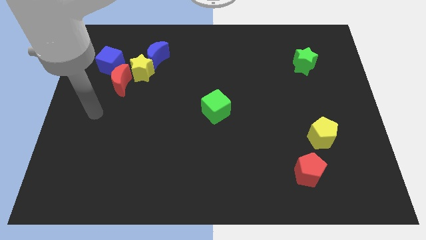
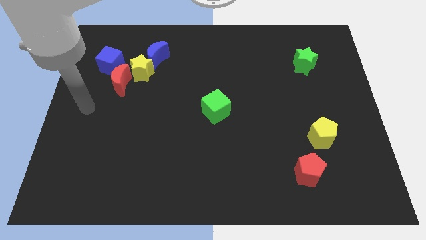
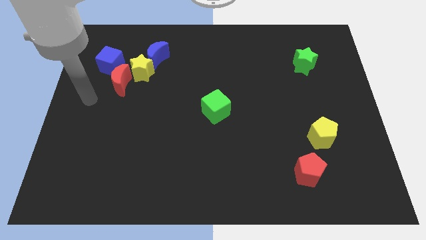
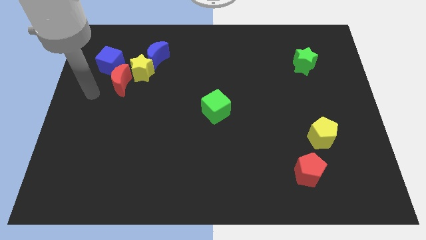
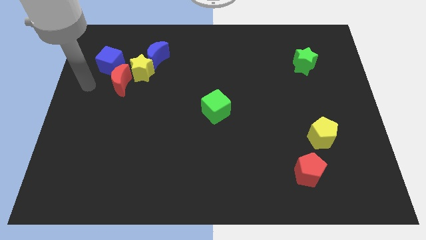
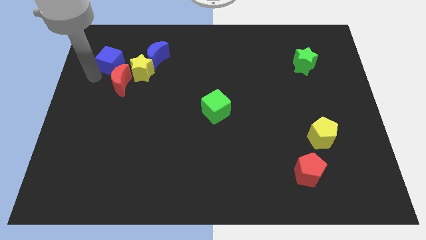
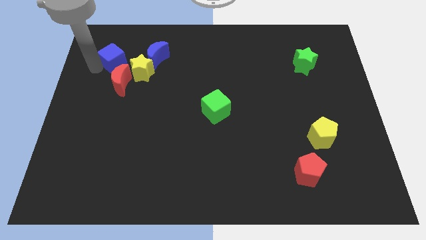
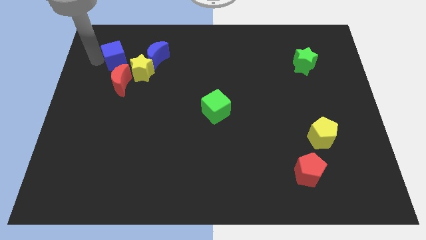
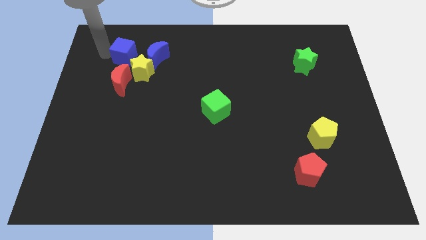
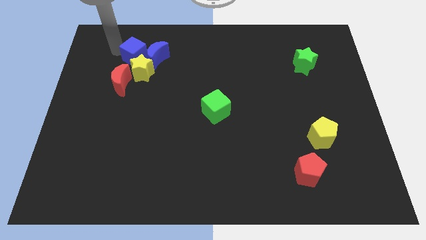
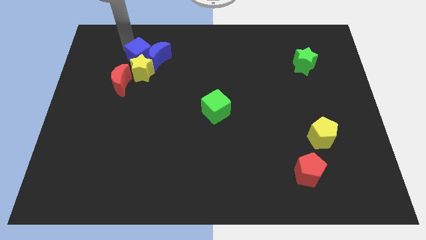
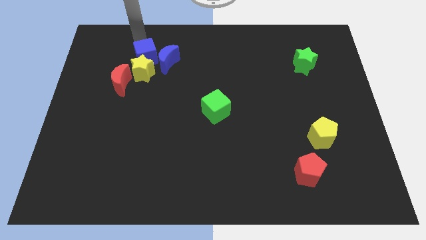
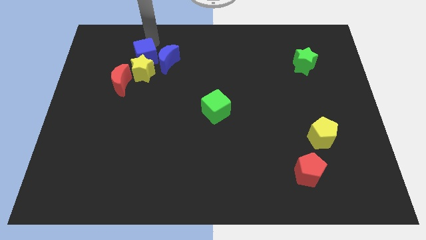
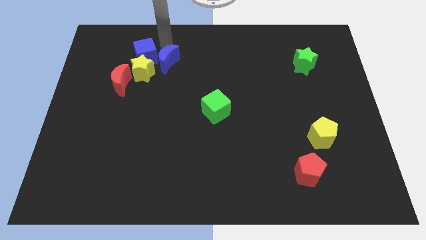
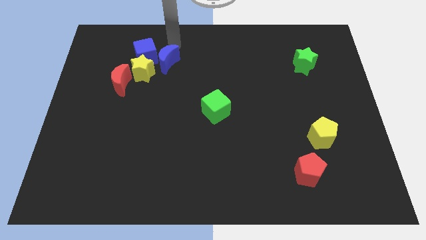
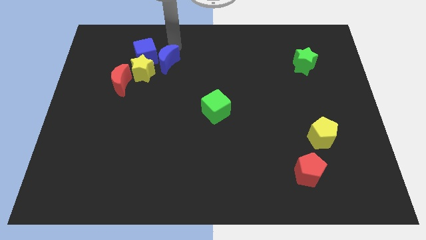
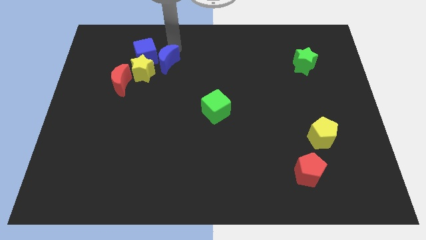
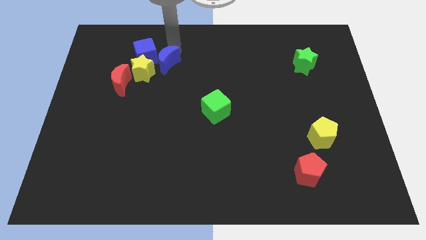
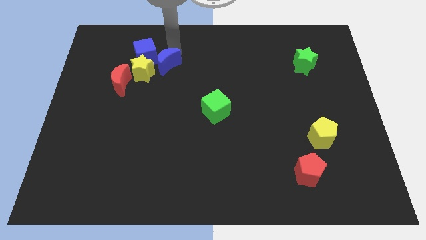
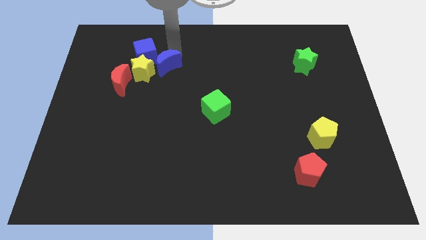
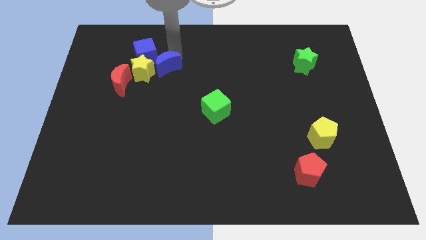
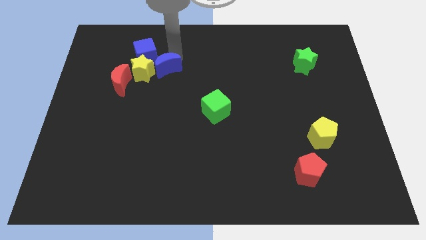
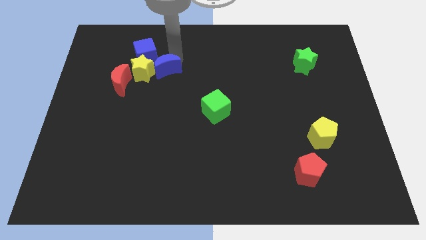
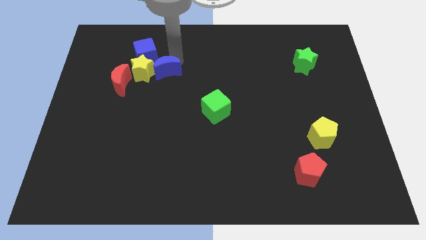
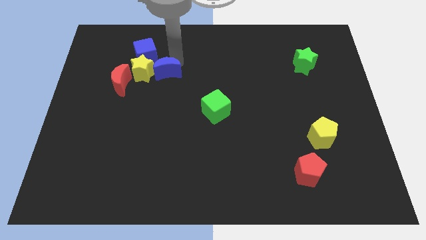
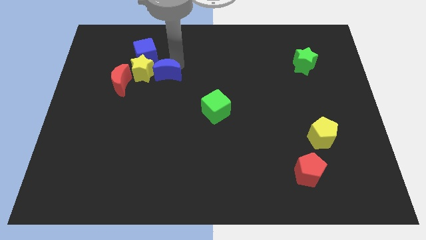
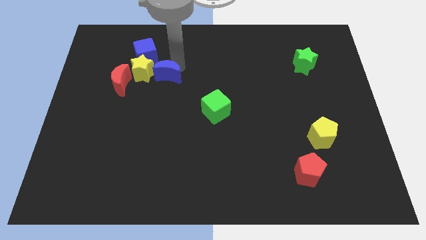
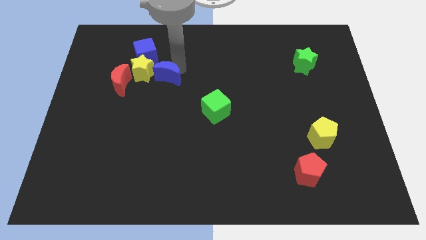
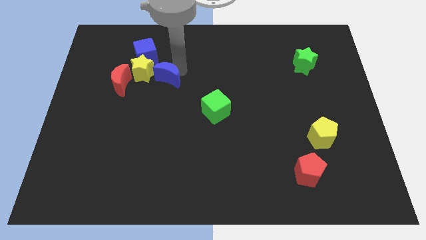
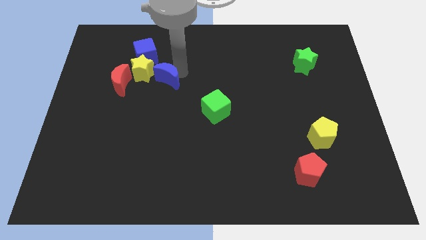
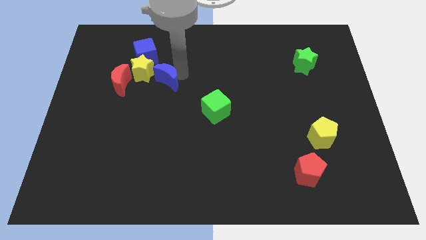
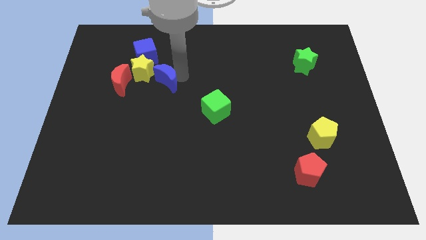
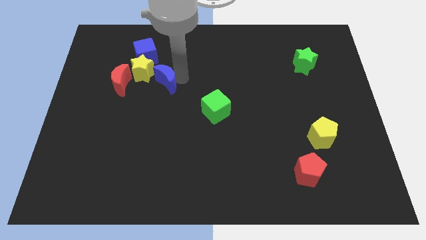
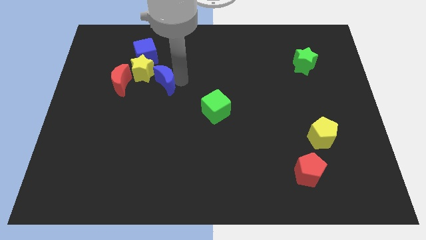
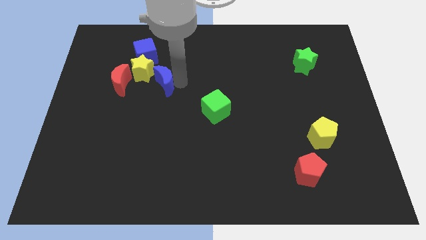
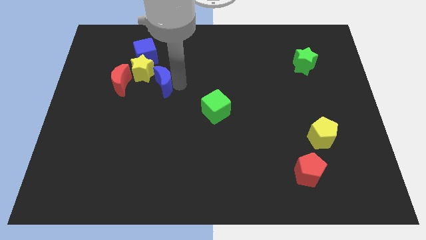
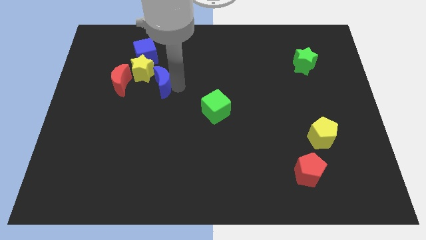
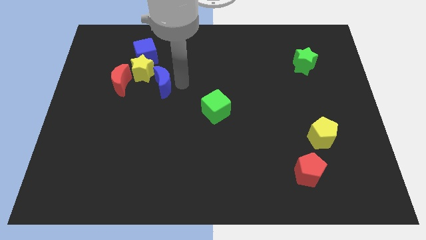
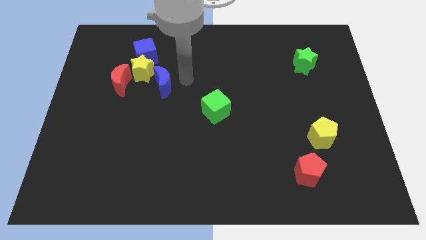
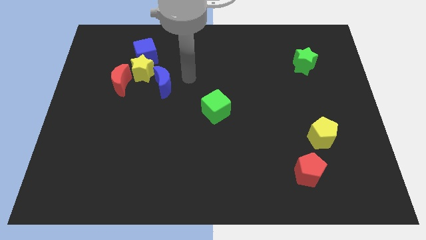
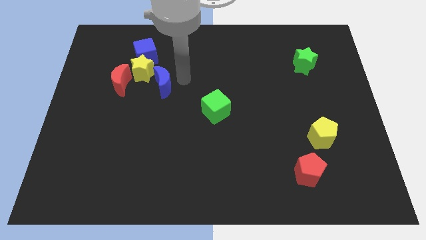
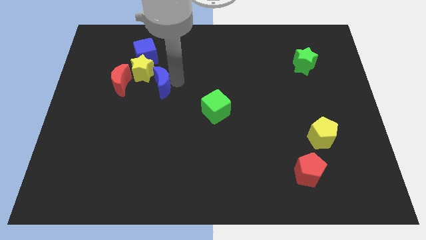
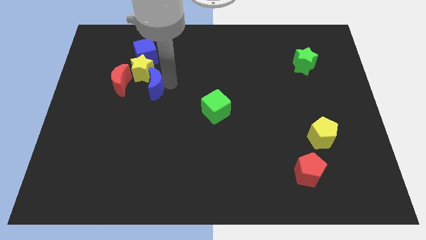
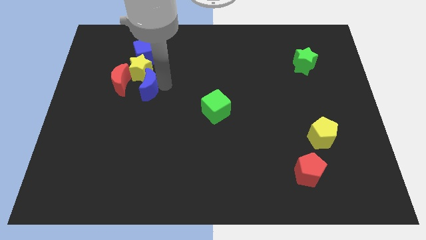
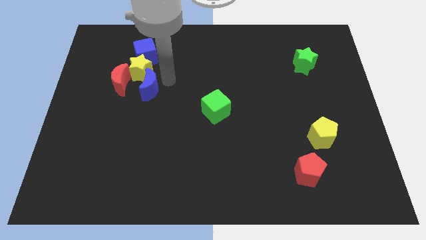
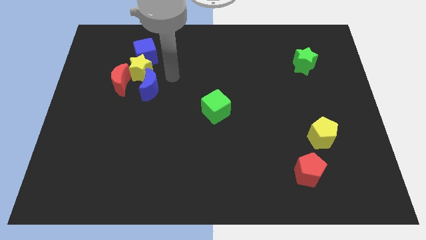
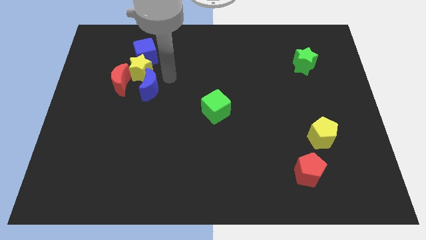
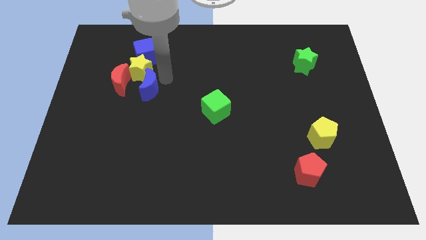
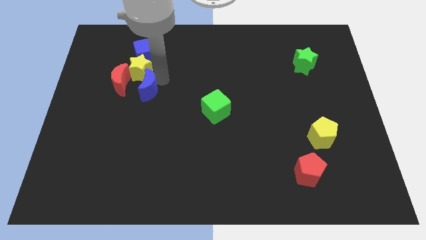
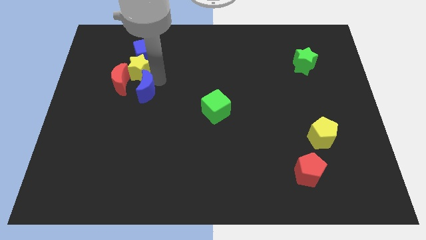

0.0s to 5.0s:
move the blue moon a bit downwards and then left

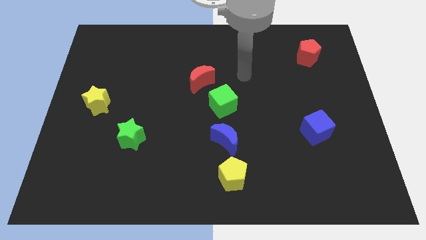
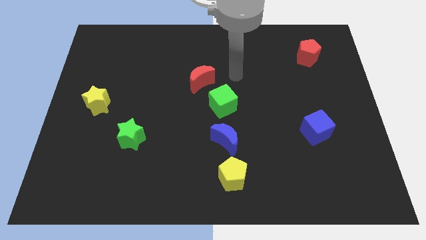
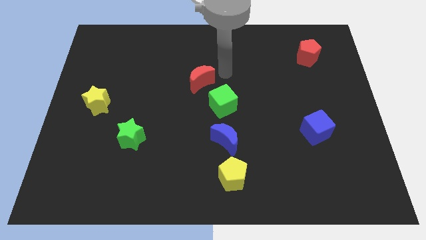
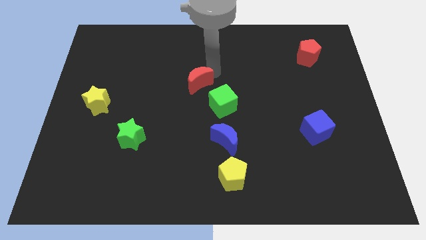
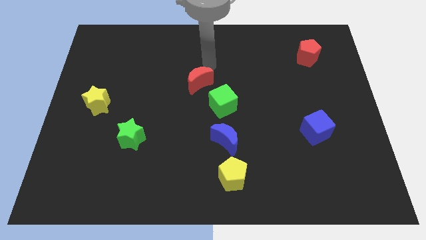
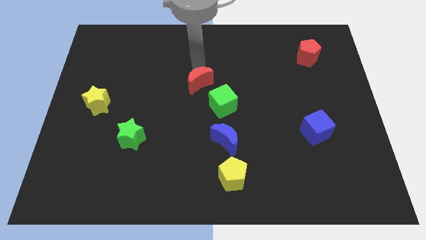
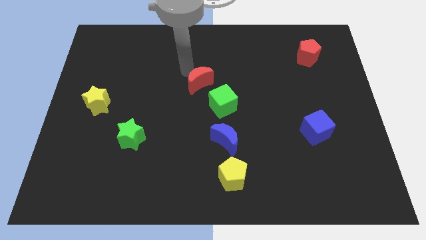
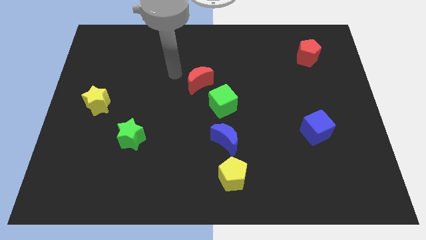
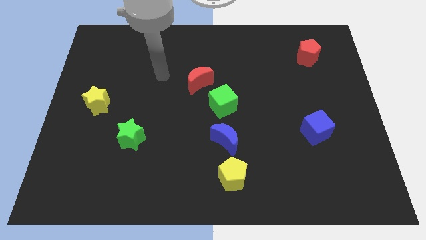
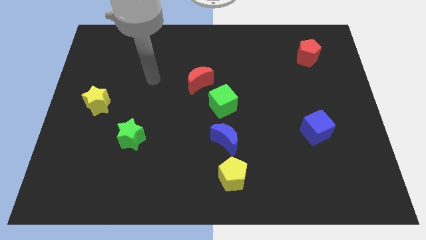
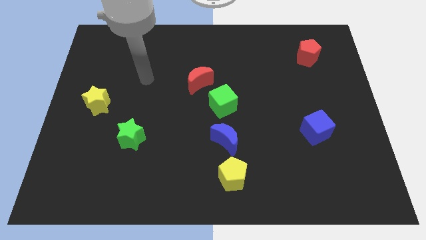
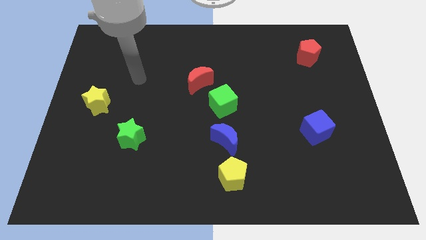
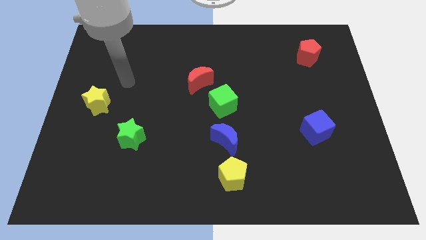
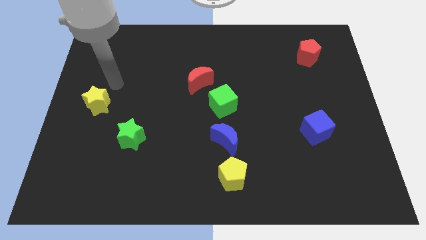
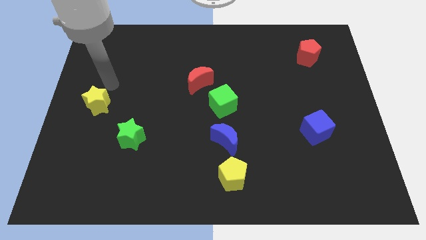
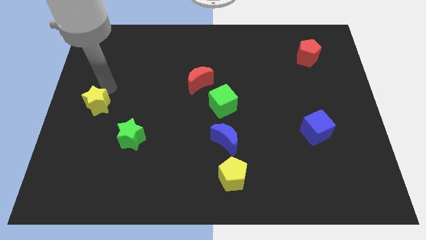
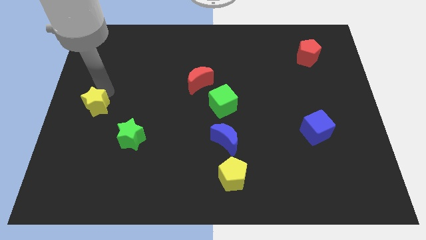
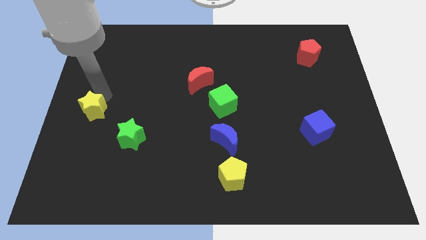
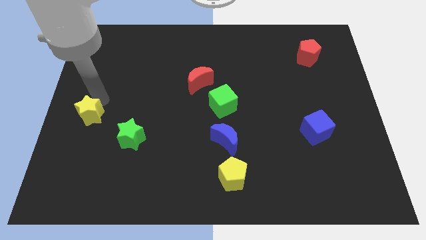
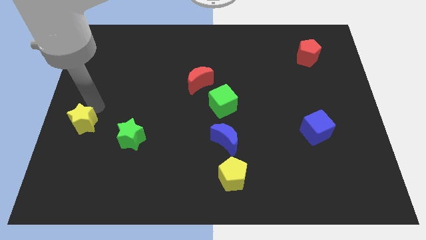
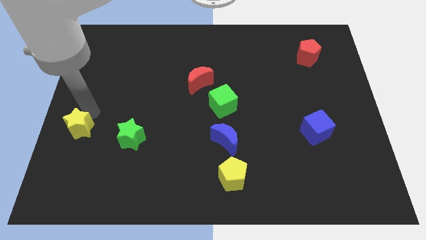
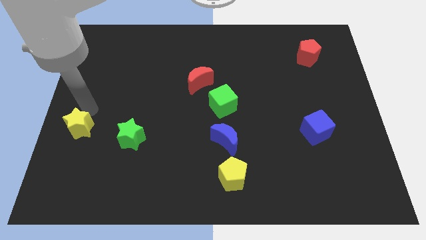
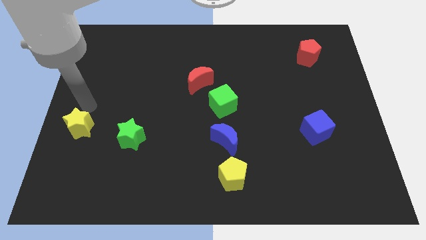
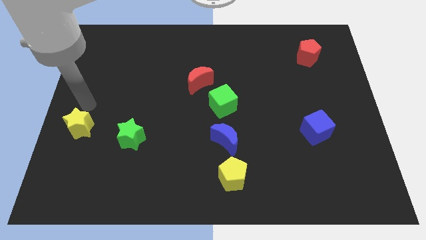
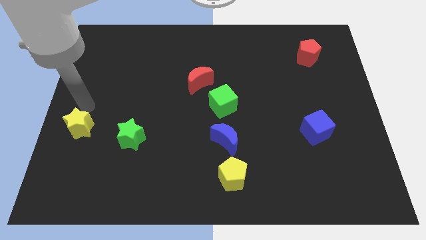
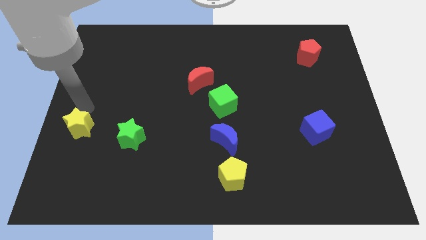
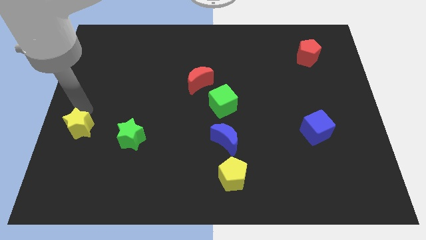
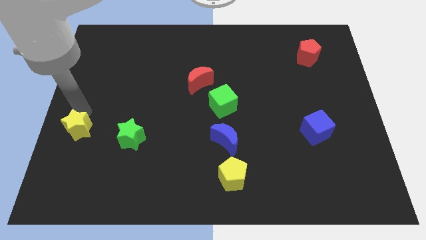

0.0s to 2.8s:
slightly slide the yellow star downwards

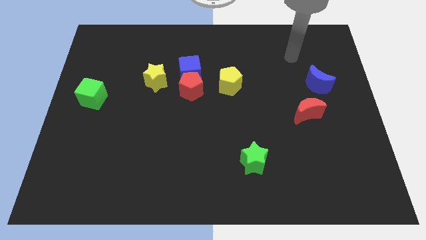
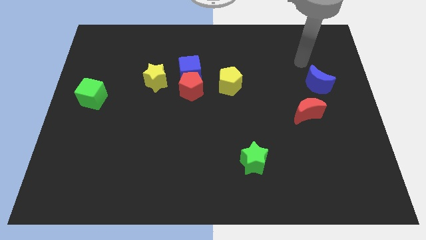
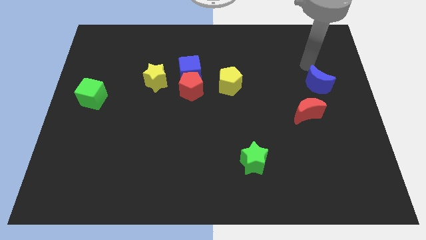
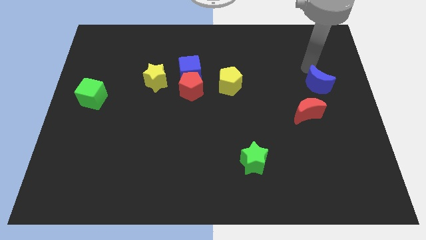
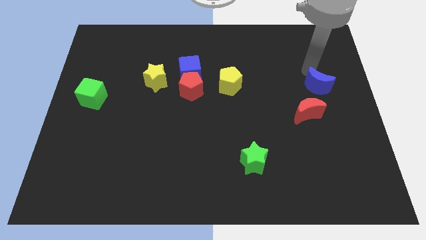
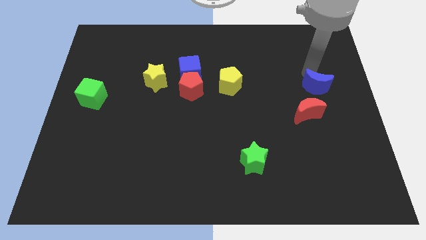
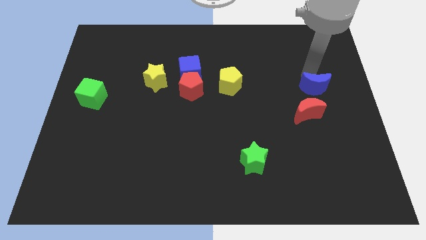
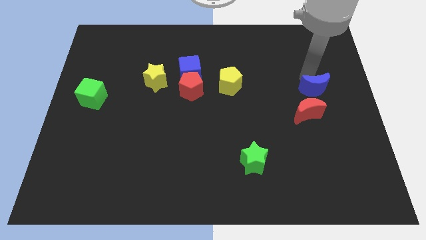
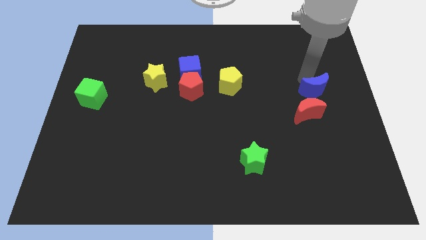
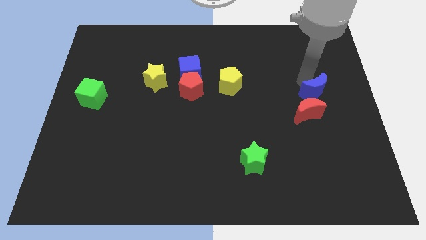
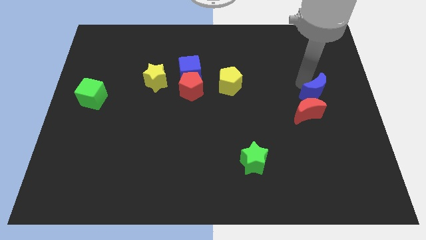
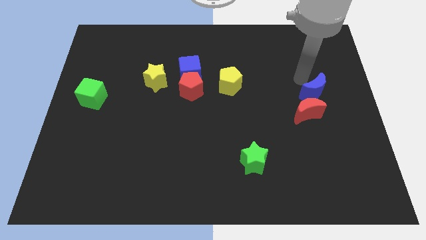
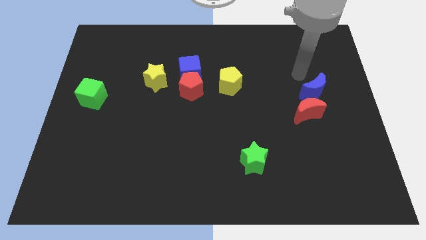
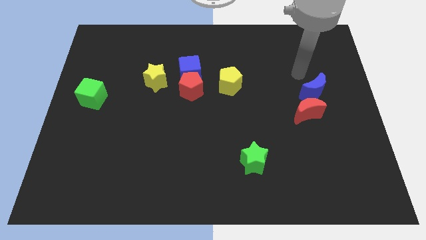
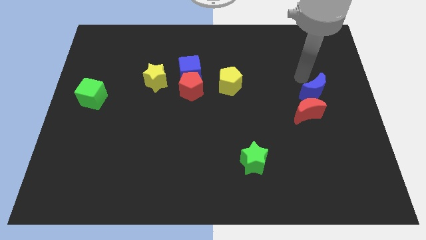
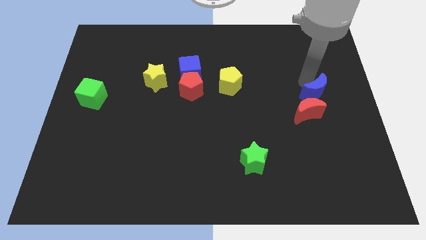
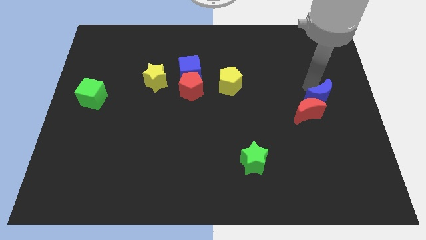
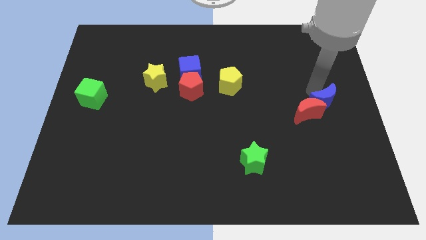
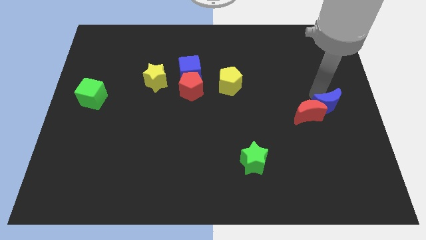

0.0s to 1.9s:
move the blue moon down a little
